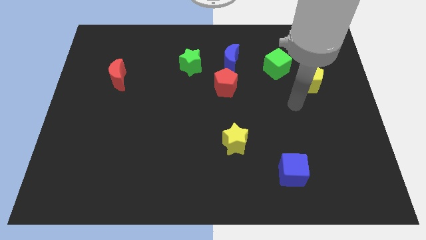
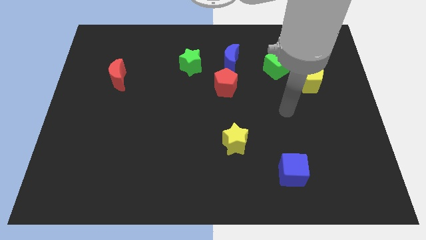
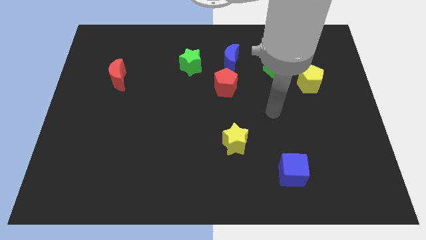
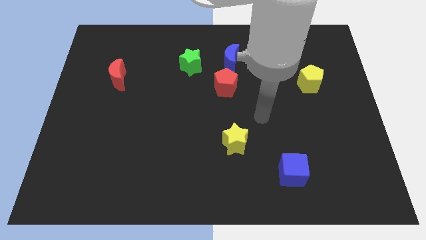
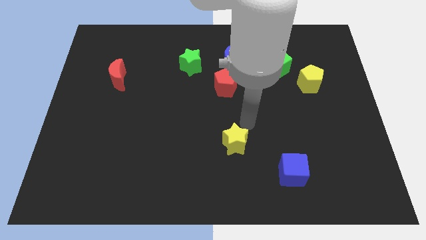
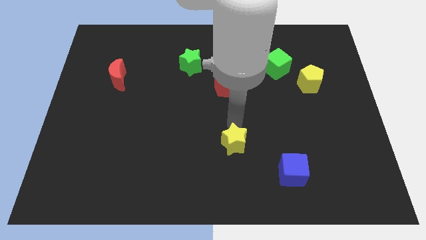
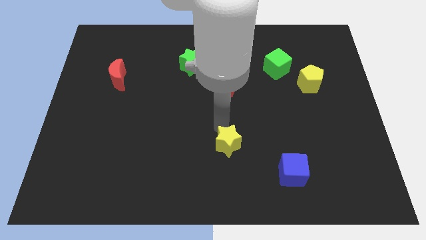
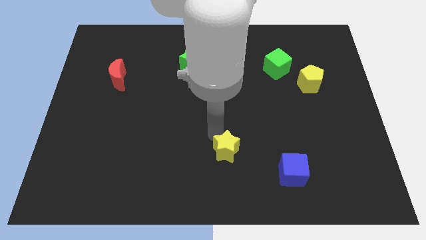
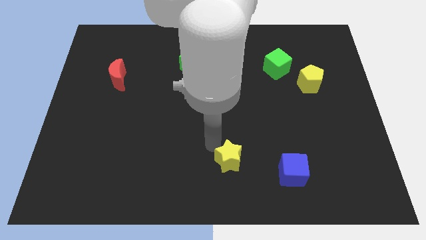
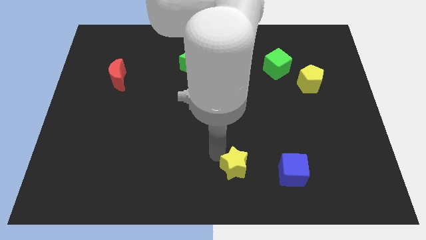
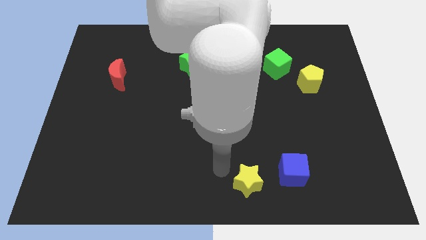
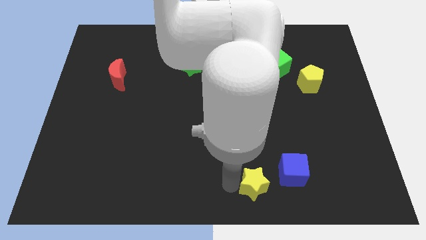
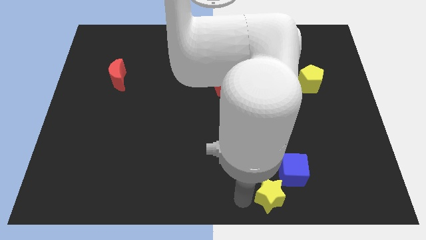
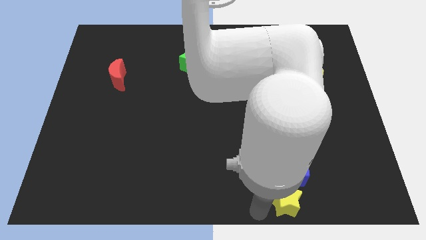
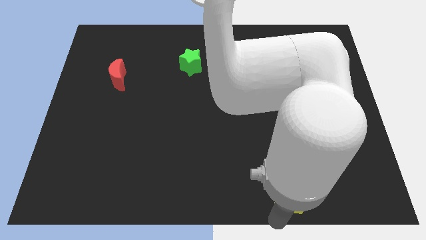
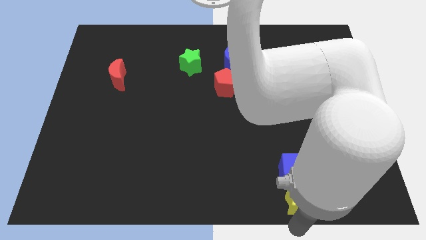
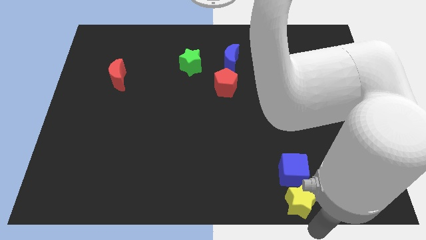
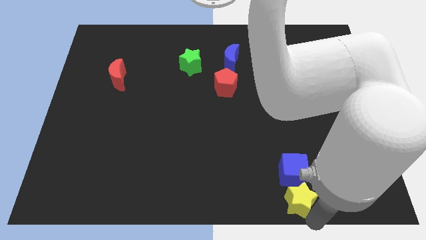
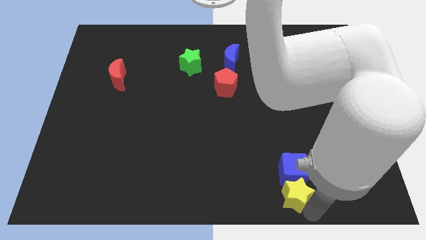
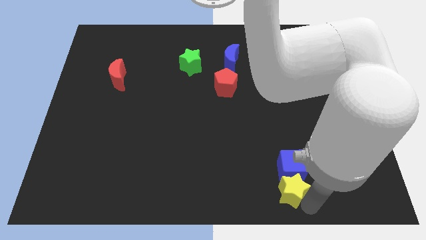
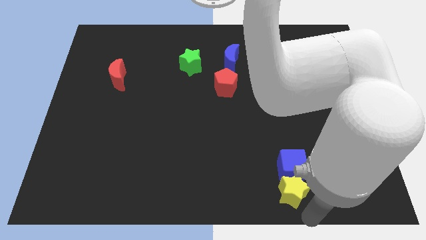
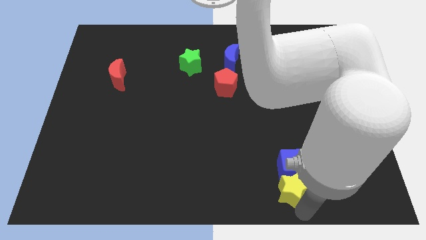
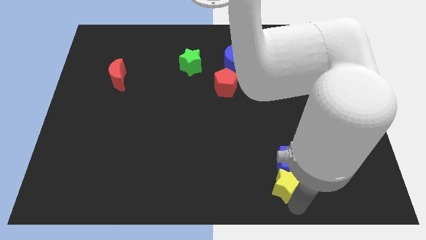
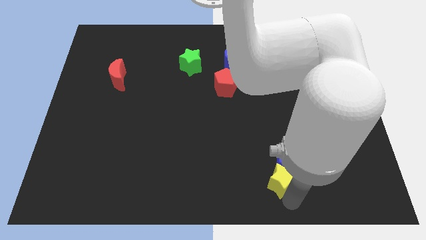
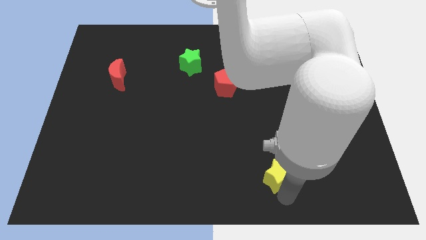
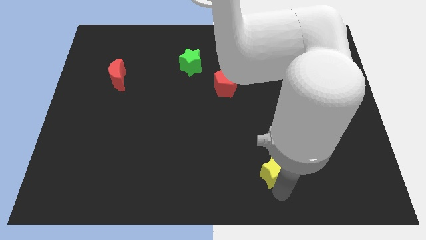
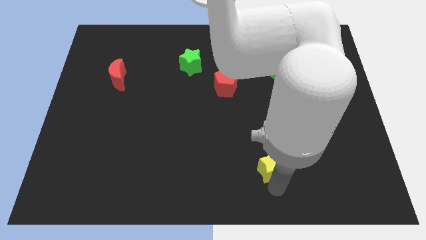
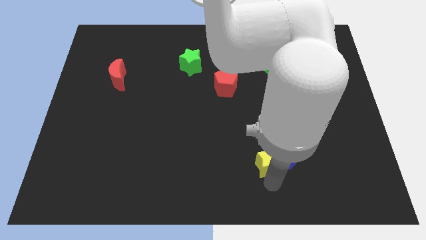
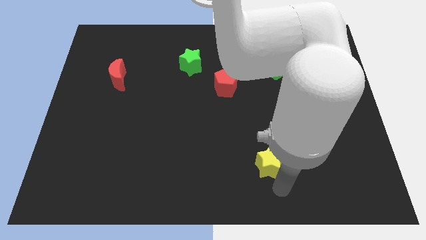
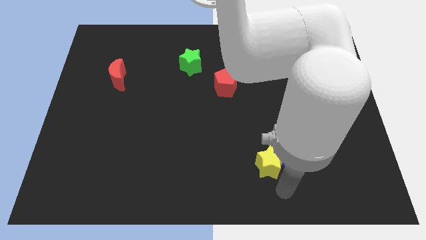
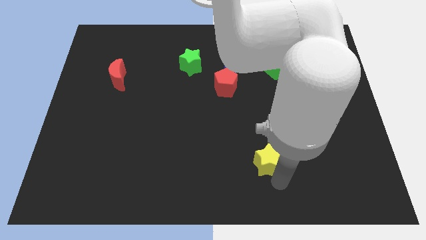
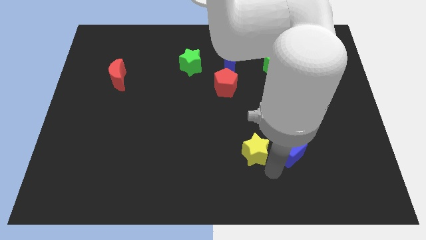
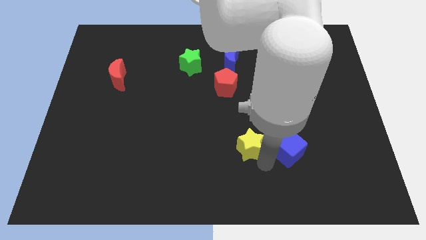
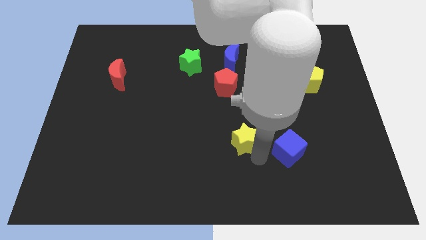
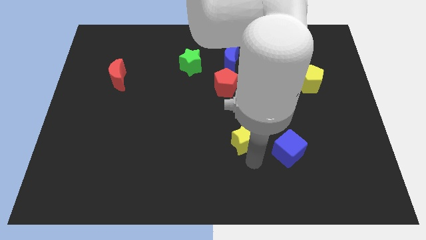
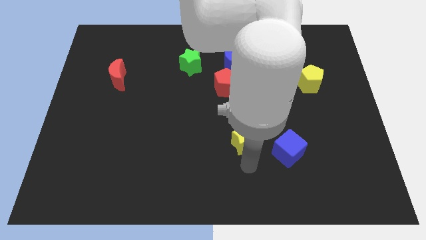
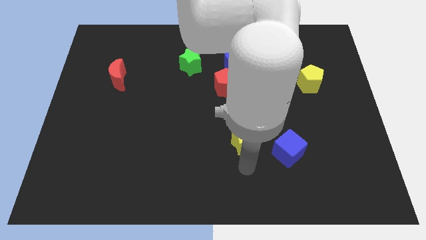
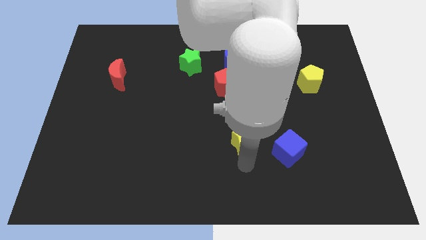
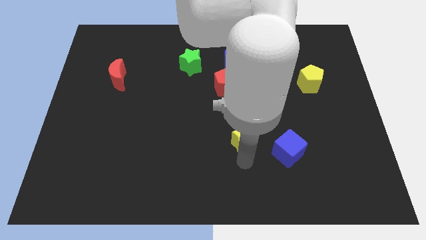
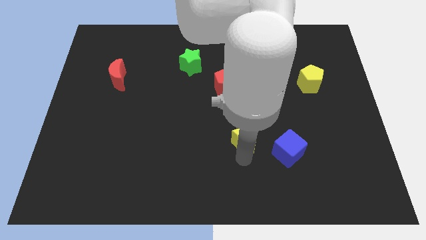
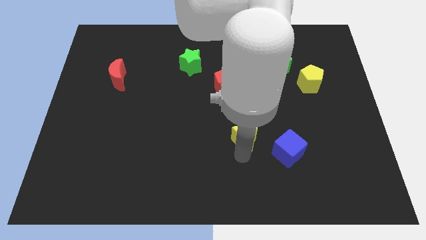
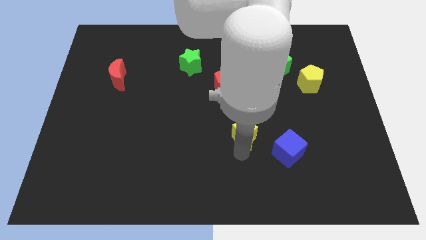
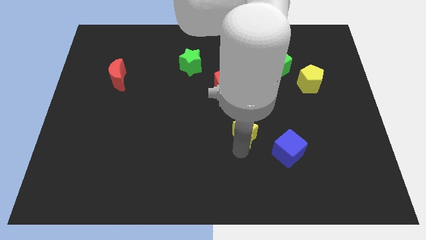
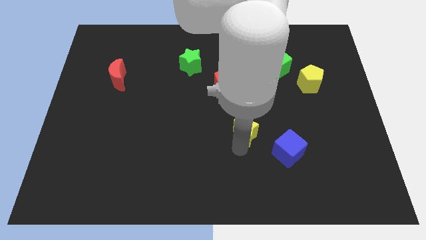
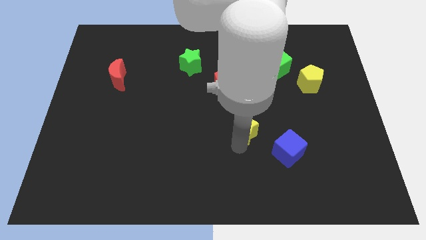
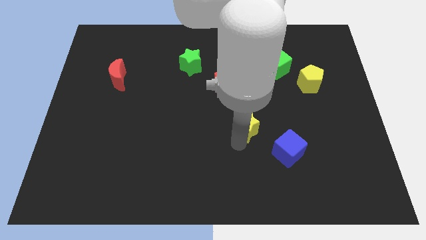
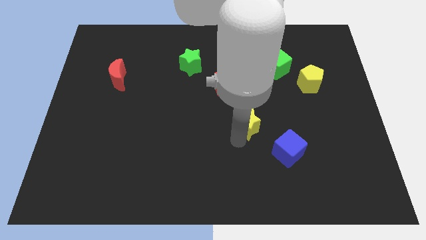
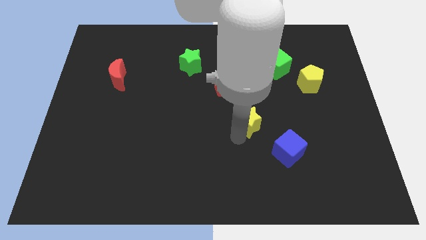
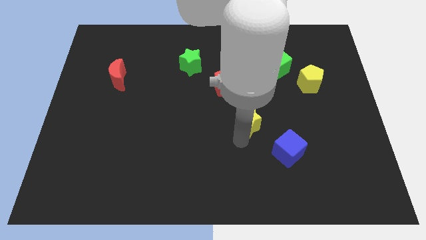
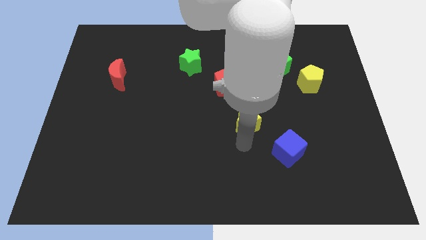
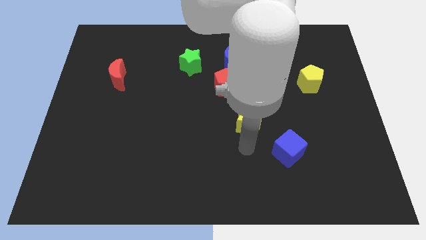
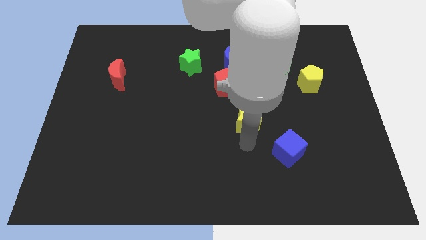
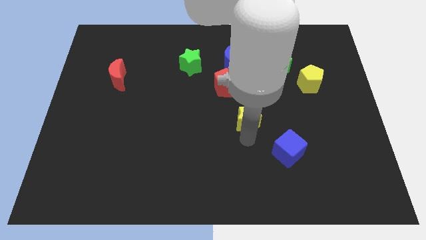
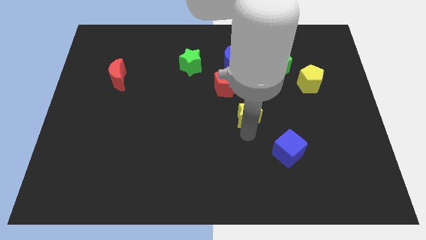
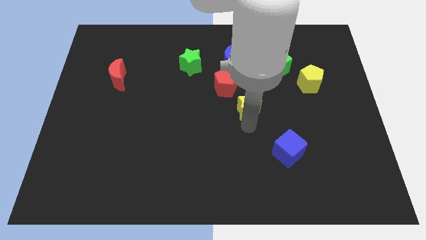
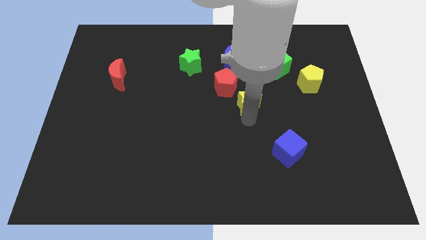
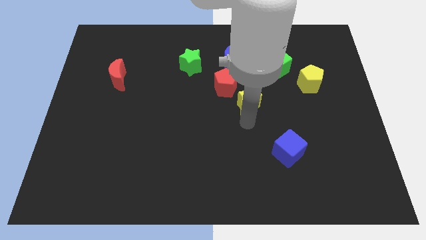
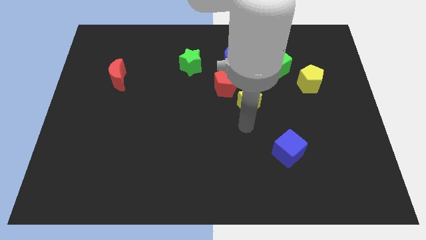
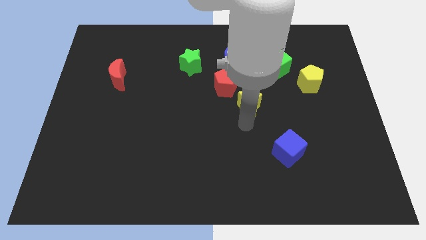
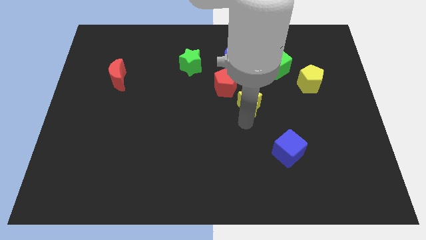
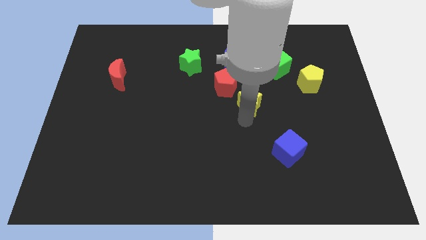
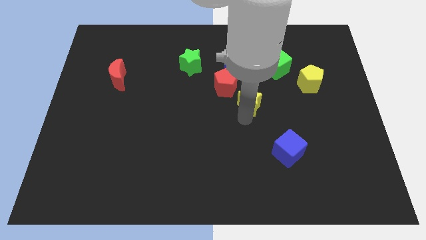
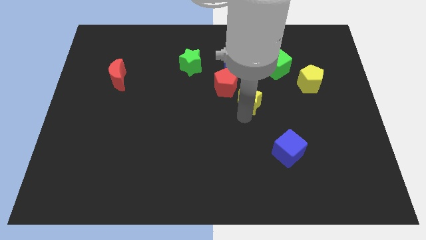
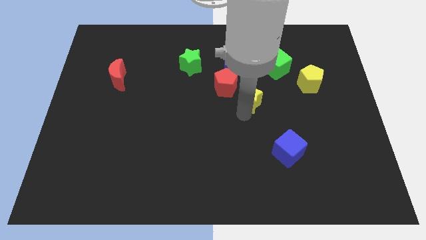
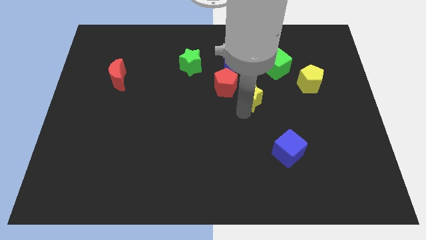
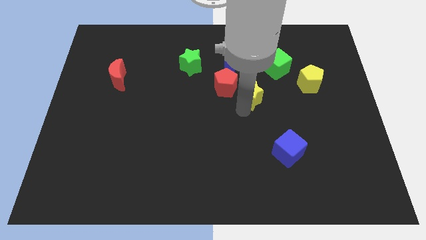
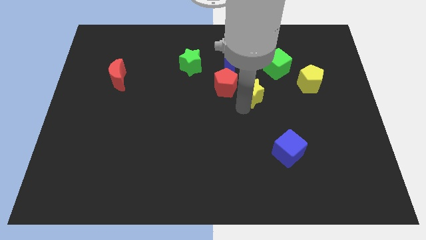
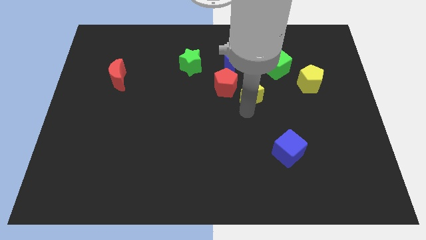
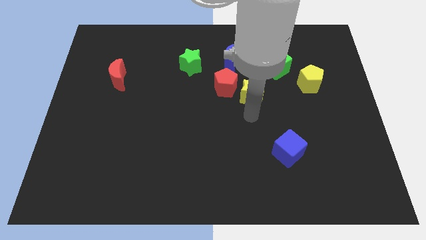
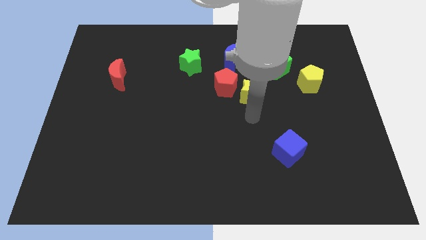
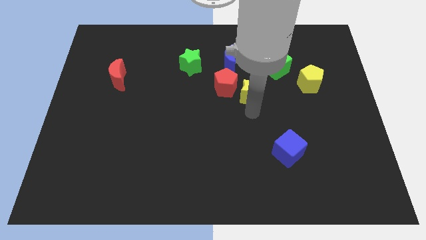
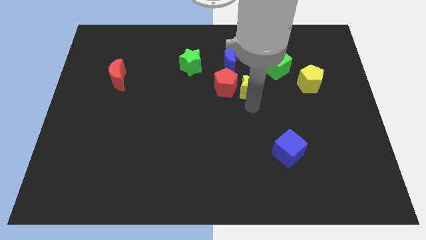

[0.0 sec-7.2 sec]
push the yellow star to the bottom right of the blue moon

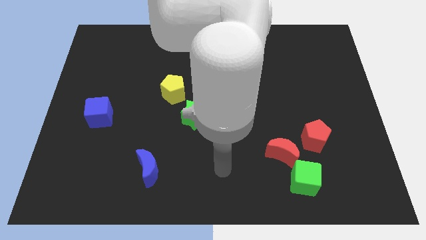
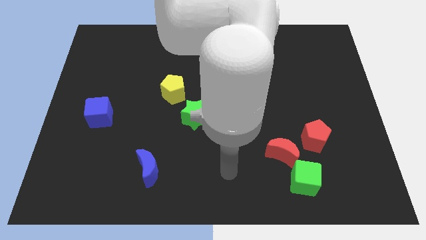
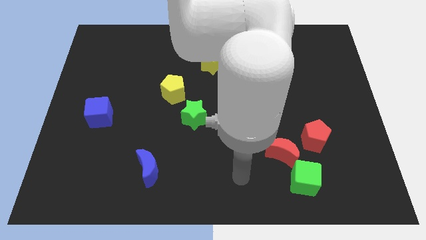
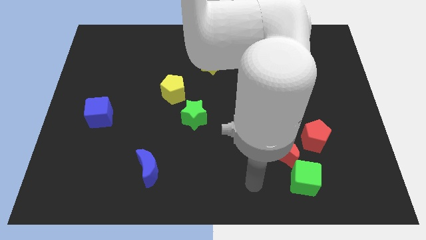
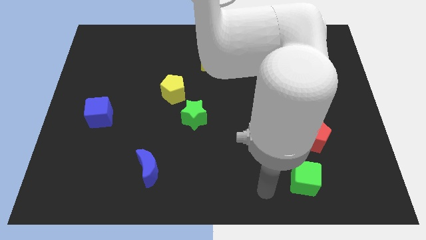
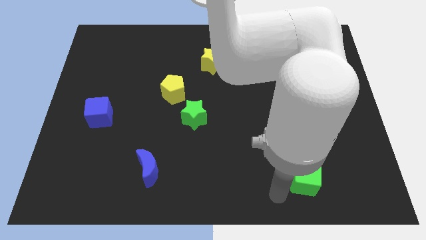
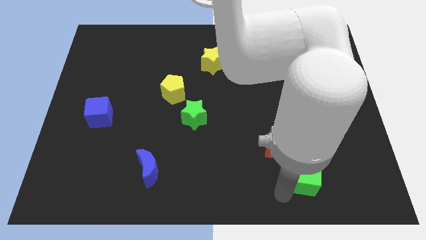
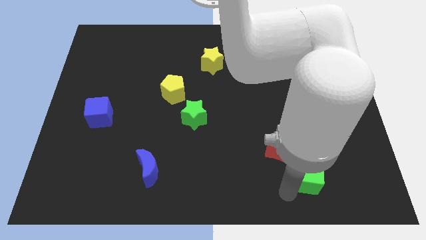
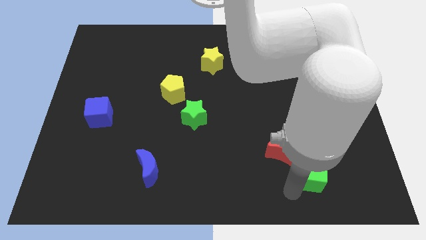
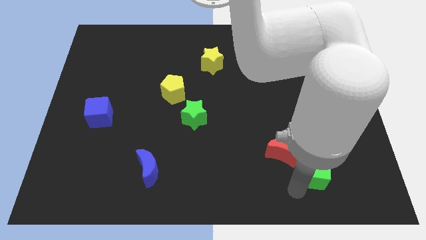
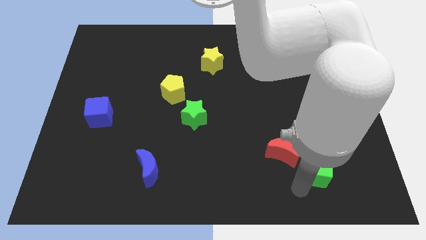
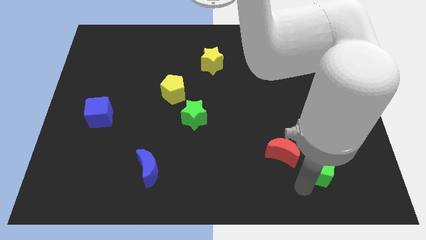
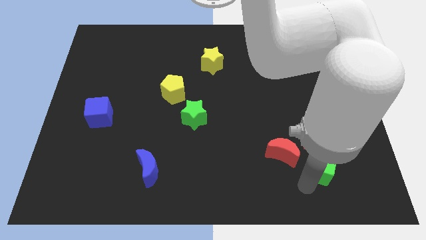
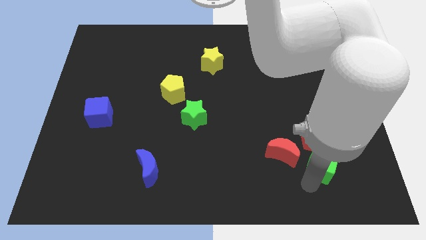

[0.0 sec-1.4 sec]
move the green cube to the bottom right side of the red pentagon
